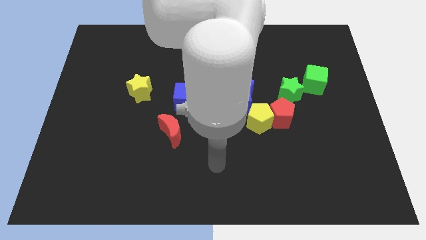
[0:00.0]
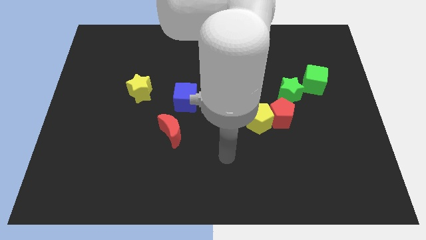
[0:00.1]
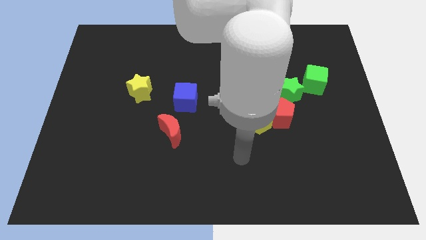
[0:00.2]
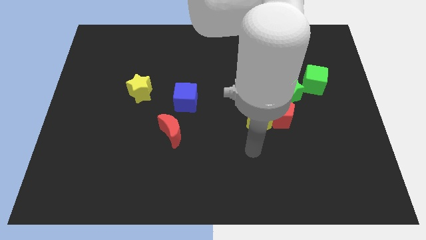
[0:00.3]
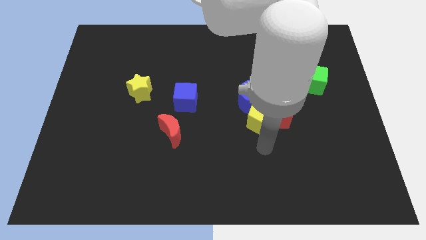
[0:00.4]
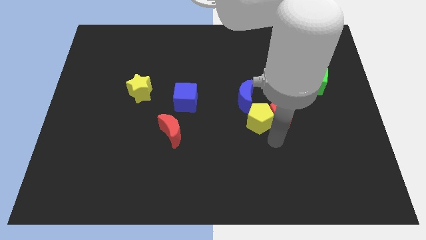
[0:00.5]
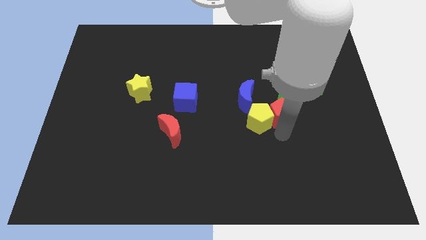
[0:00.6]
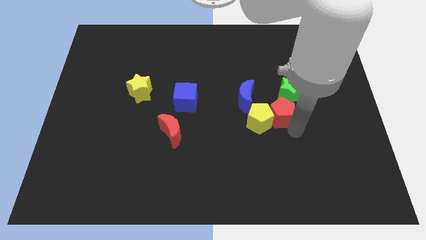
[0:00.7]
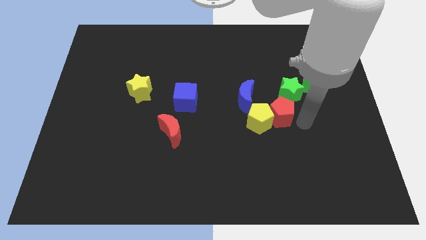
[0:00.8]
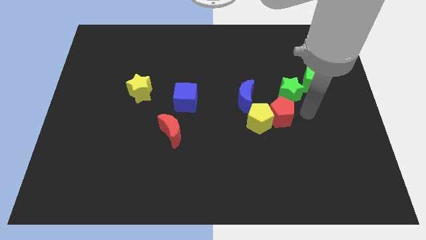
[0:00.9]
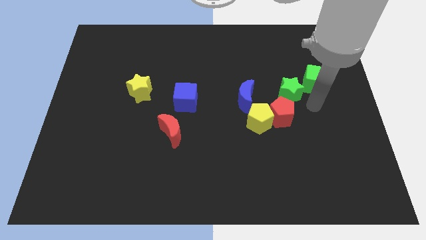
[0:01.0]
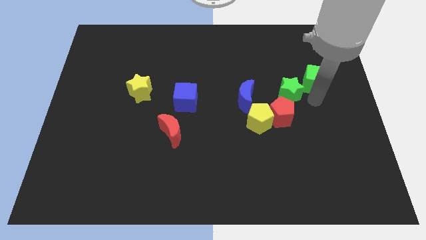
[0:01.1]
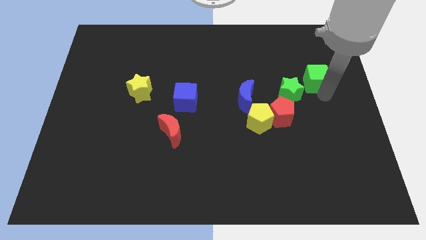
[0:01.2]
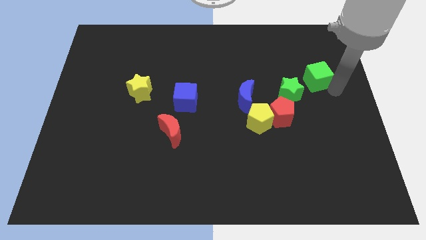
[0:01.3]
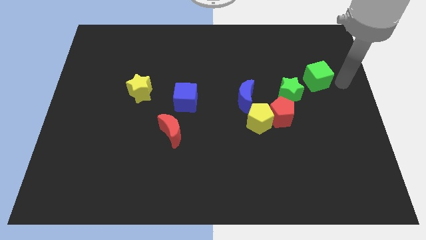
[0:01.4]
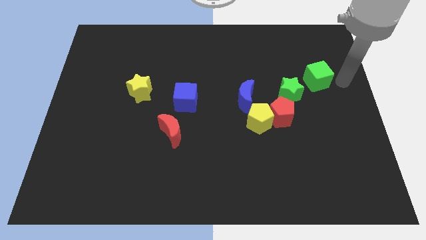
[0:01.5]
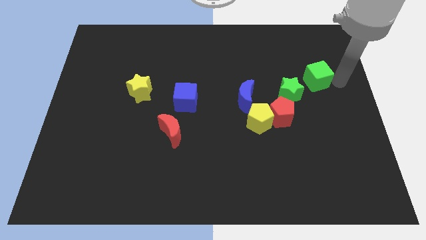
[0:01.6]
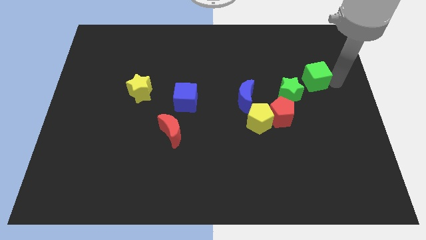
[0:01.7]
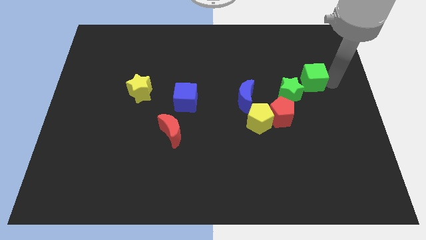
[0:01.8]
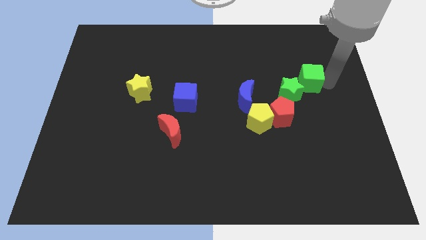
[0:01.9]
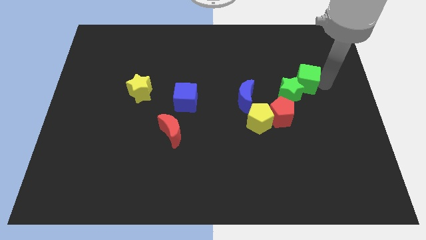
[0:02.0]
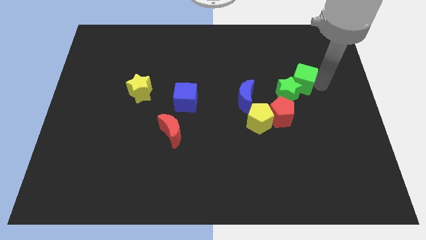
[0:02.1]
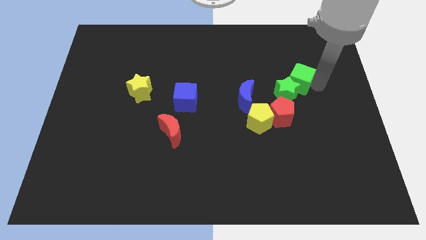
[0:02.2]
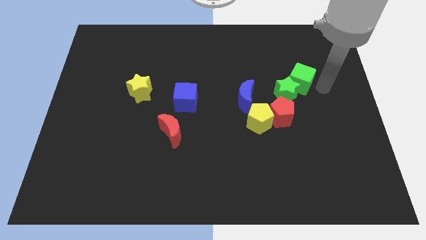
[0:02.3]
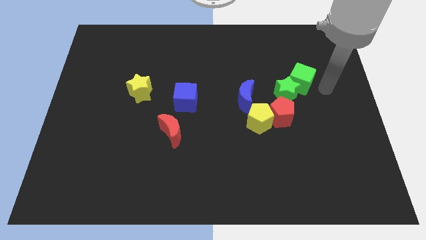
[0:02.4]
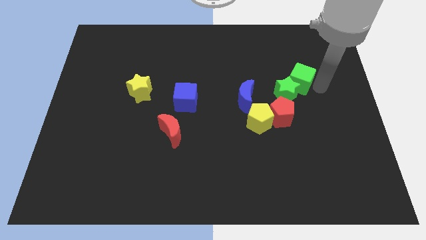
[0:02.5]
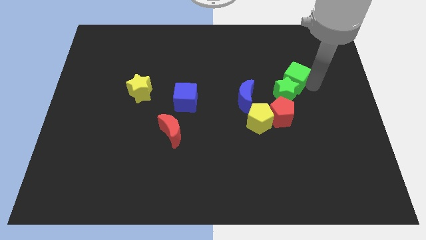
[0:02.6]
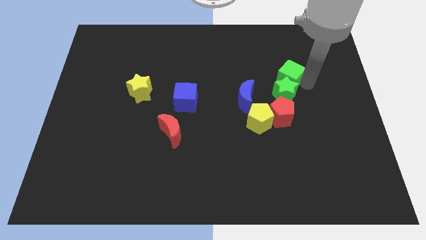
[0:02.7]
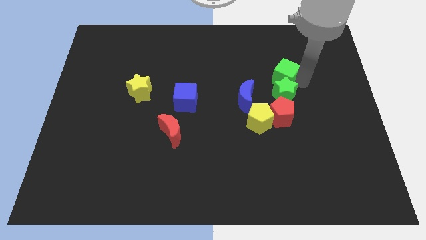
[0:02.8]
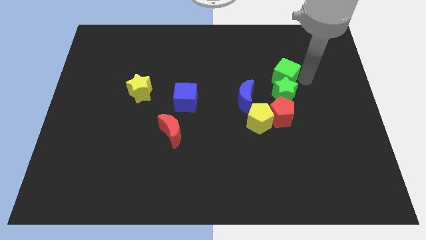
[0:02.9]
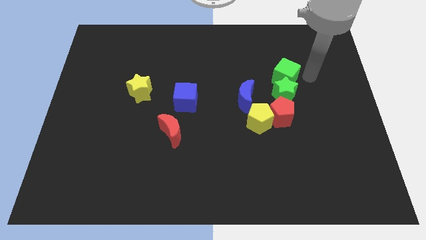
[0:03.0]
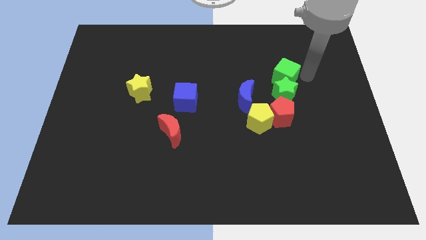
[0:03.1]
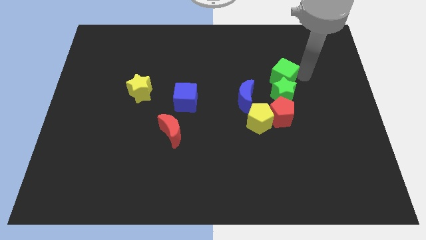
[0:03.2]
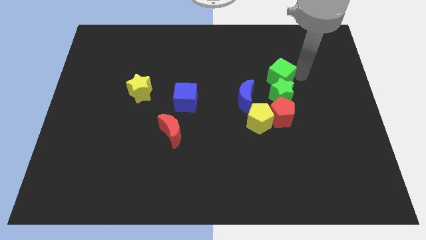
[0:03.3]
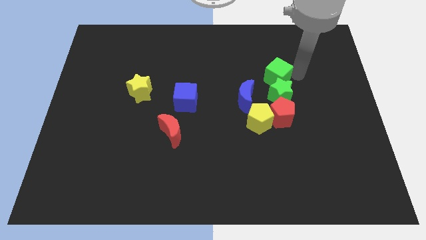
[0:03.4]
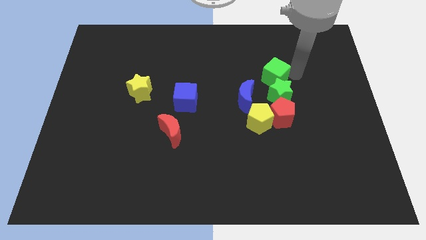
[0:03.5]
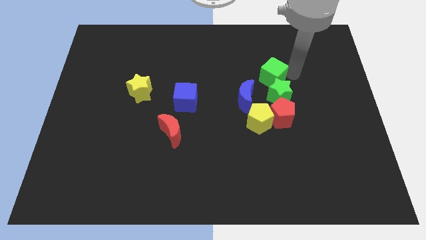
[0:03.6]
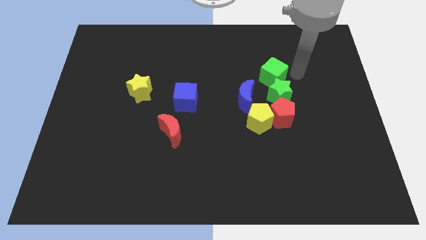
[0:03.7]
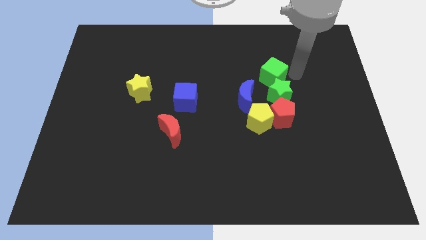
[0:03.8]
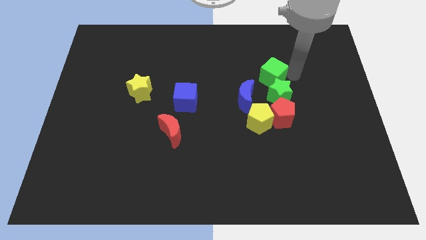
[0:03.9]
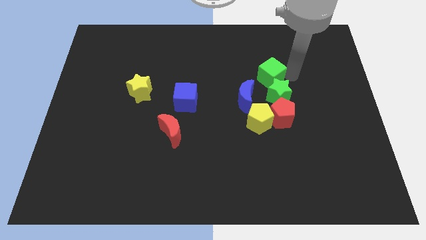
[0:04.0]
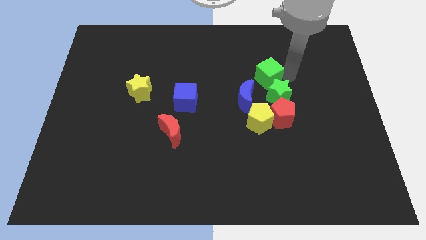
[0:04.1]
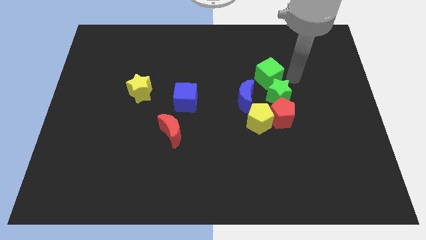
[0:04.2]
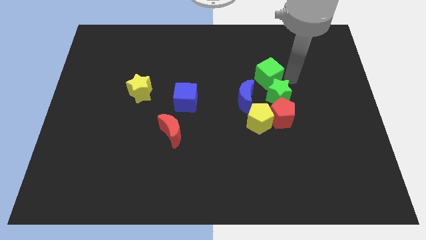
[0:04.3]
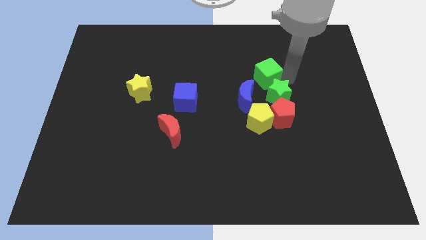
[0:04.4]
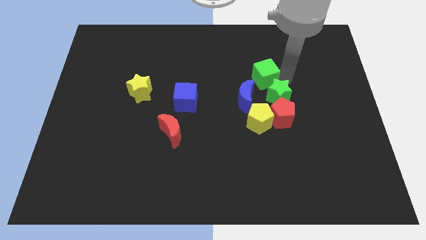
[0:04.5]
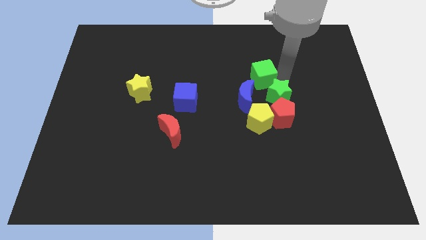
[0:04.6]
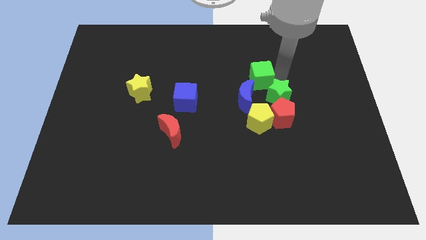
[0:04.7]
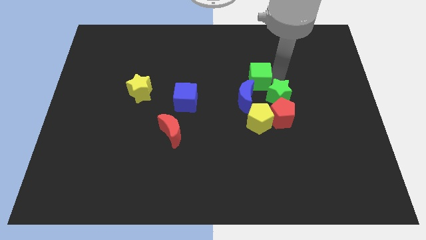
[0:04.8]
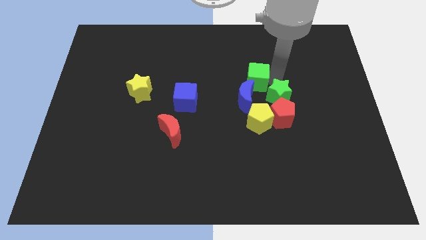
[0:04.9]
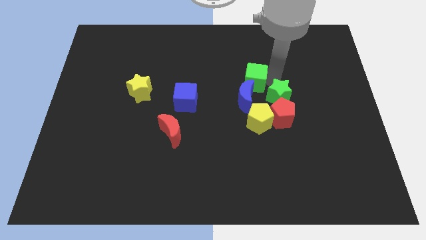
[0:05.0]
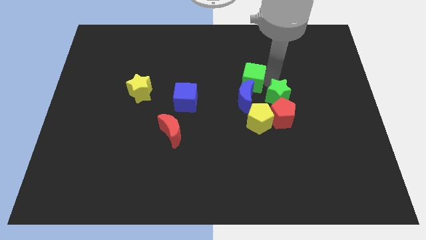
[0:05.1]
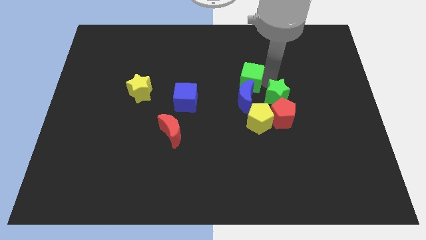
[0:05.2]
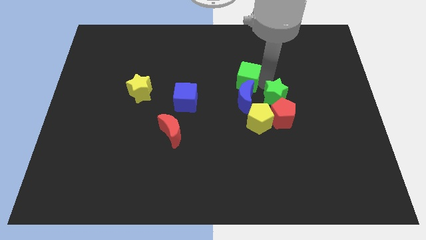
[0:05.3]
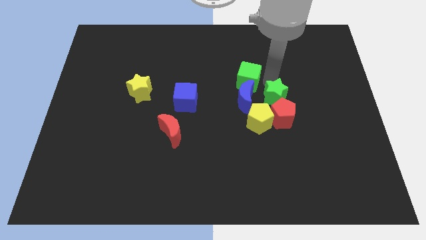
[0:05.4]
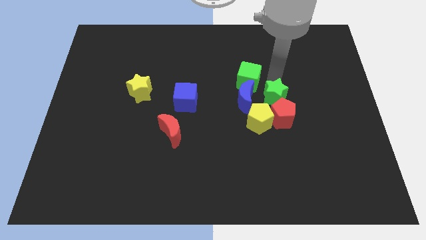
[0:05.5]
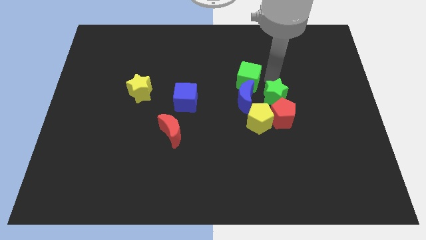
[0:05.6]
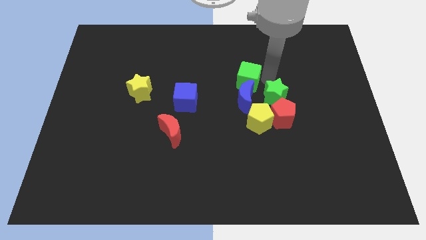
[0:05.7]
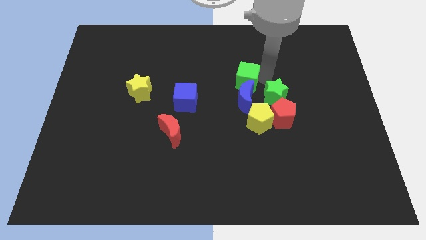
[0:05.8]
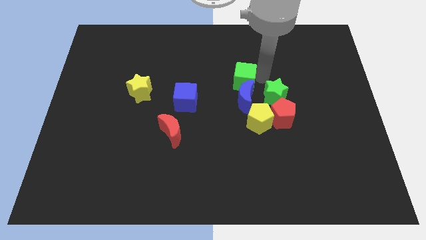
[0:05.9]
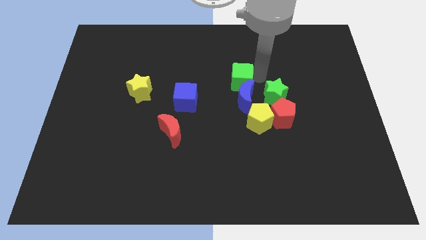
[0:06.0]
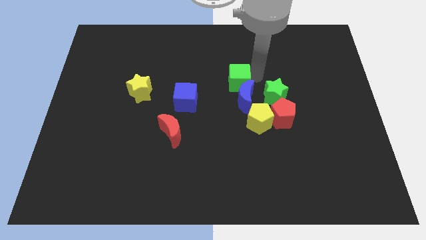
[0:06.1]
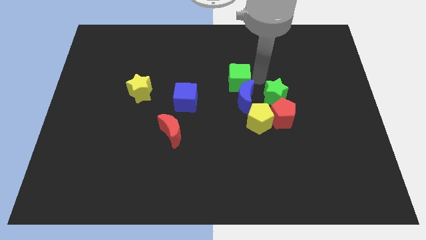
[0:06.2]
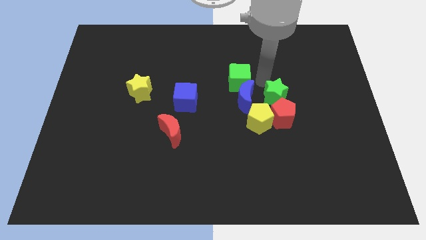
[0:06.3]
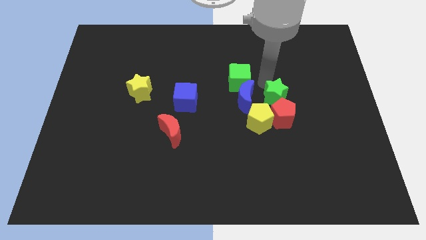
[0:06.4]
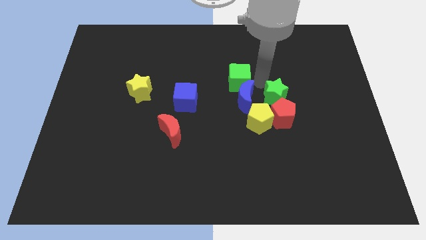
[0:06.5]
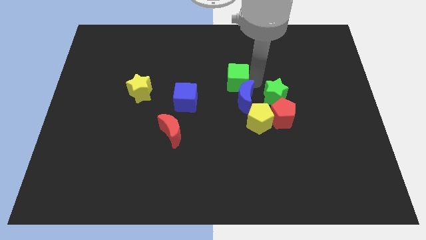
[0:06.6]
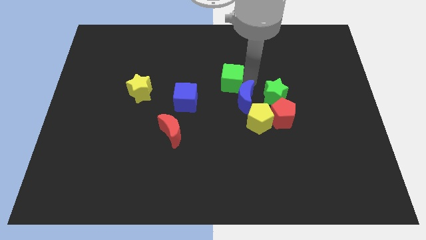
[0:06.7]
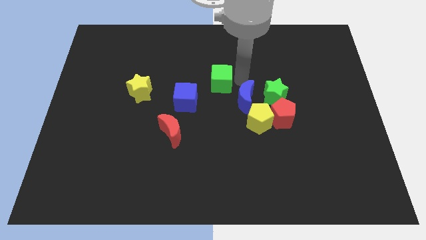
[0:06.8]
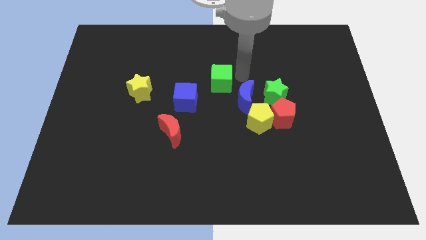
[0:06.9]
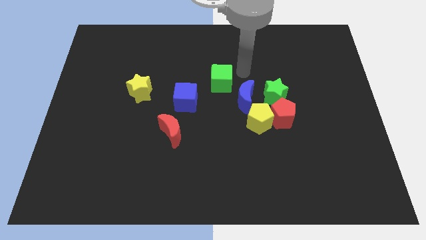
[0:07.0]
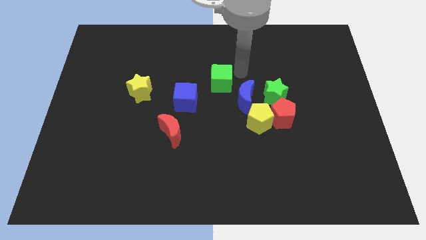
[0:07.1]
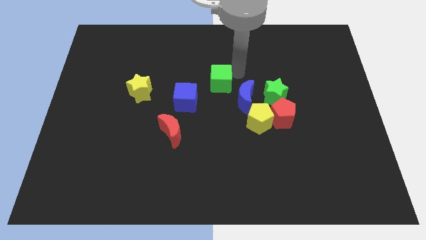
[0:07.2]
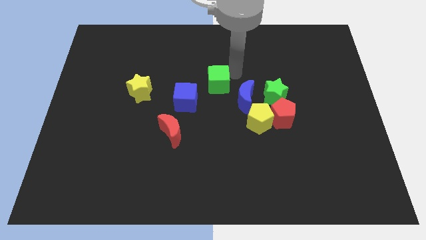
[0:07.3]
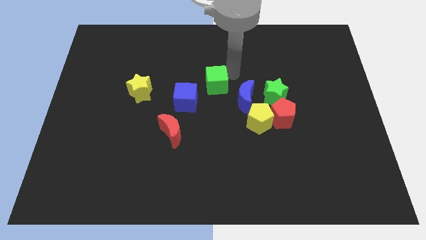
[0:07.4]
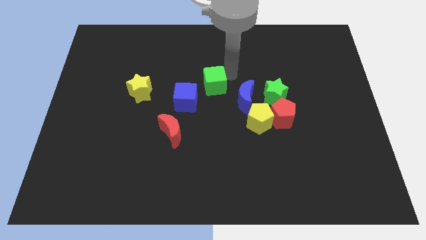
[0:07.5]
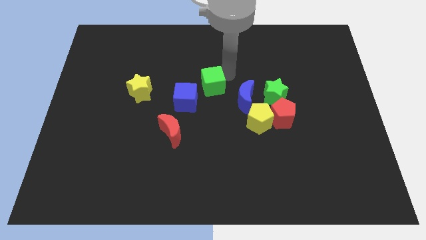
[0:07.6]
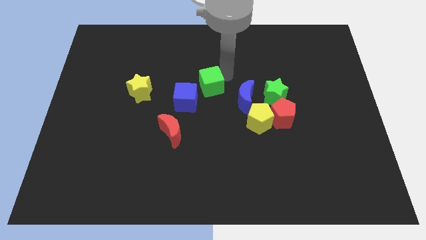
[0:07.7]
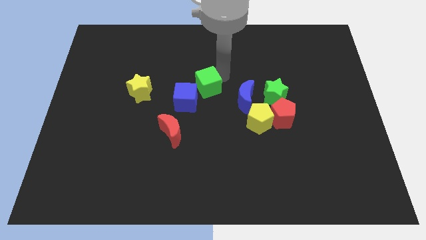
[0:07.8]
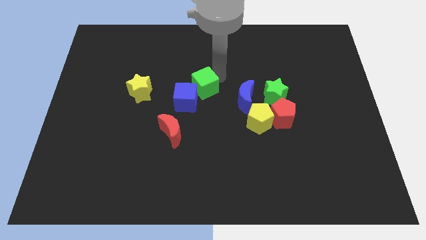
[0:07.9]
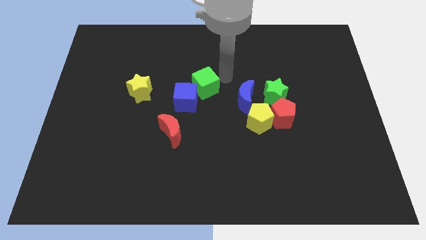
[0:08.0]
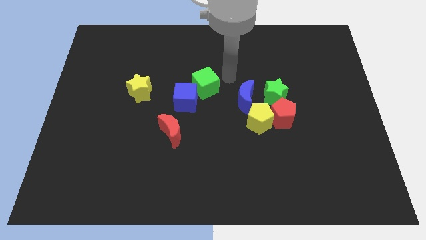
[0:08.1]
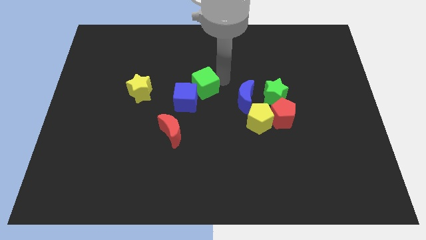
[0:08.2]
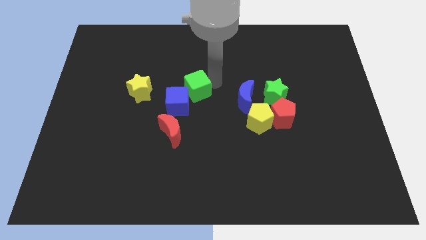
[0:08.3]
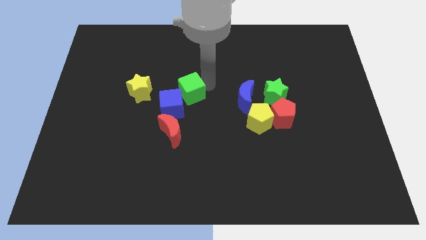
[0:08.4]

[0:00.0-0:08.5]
move the green cube to the top side of the red moon

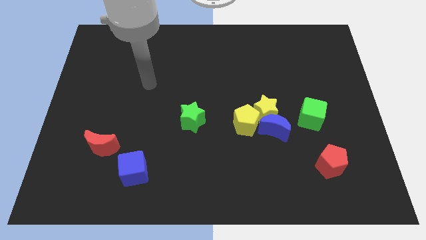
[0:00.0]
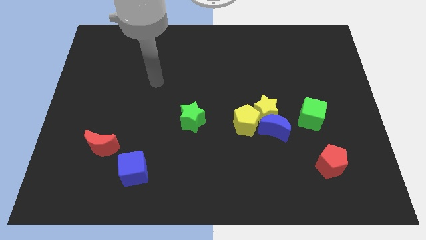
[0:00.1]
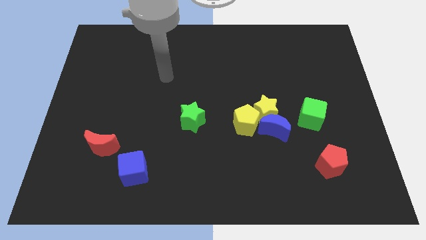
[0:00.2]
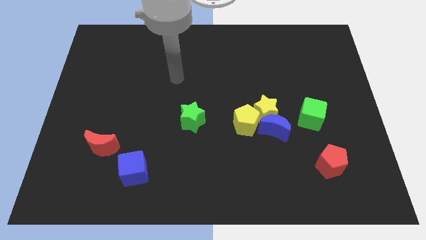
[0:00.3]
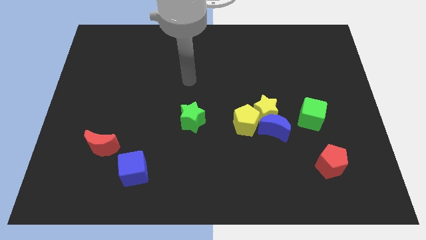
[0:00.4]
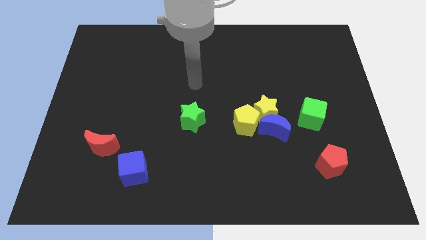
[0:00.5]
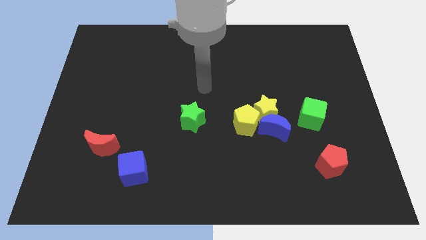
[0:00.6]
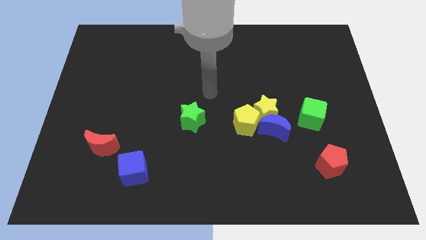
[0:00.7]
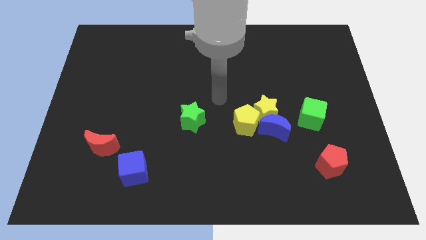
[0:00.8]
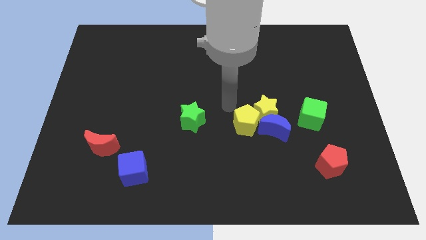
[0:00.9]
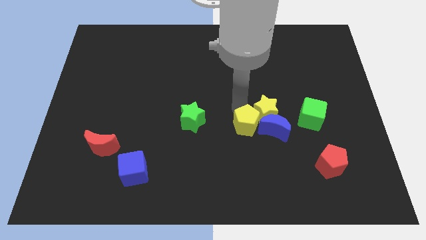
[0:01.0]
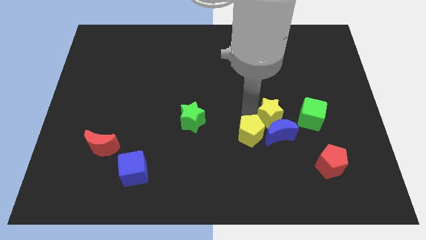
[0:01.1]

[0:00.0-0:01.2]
push the blue moon to the top left side of the red pentagon
